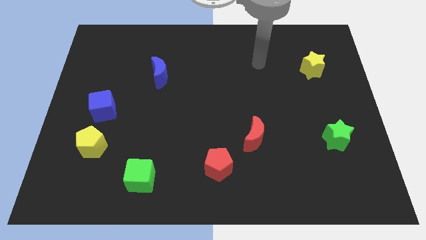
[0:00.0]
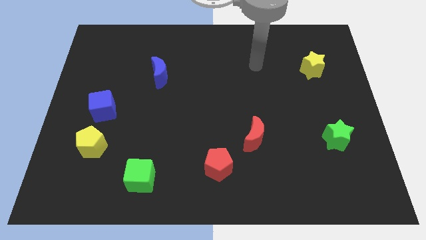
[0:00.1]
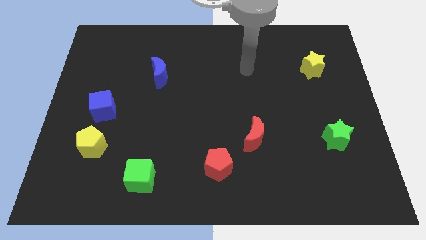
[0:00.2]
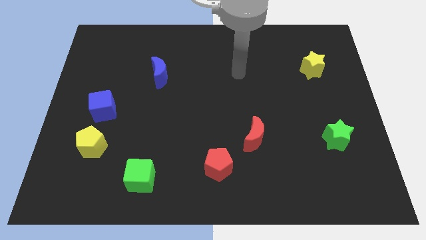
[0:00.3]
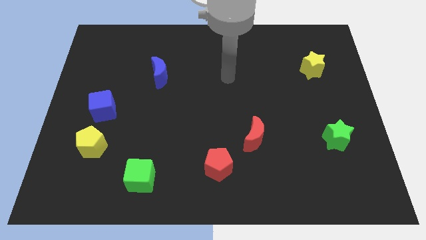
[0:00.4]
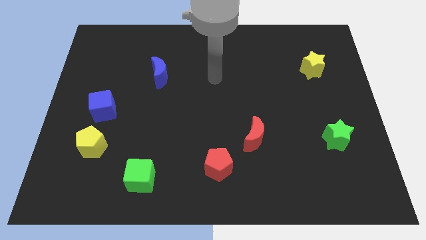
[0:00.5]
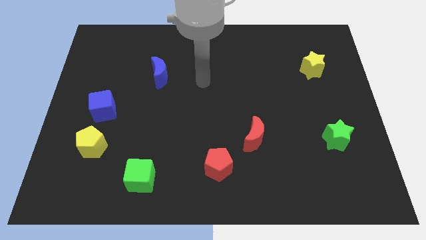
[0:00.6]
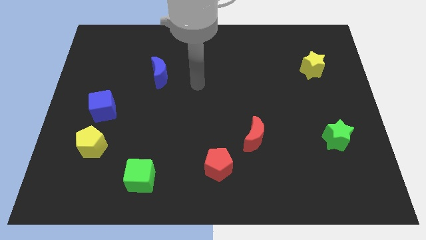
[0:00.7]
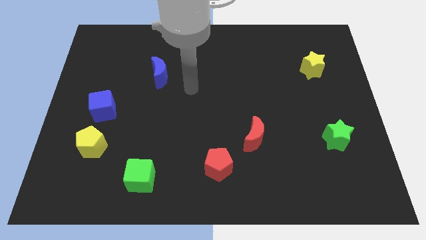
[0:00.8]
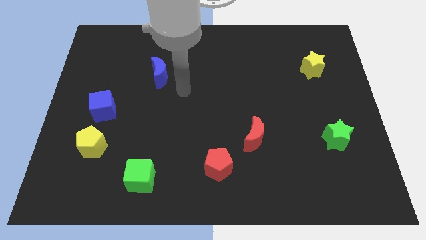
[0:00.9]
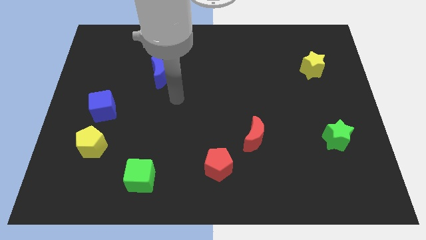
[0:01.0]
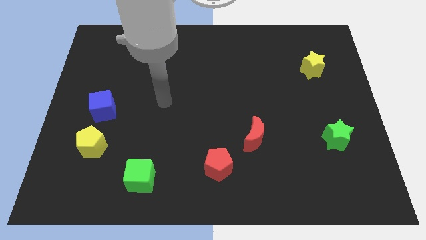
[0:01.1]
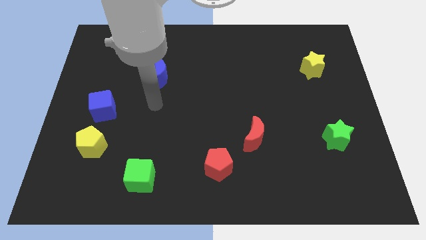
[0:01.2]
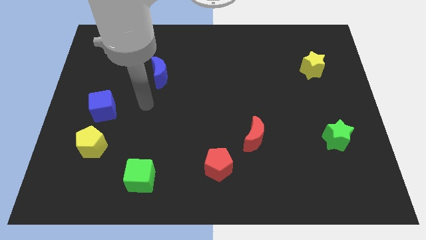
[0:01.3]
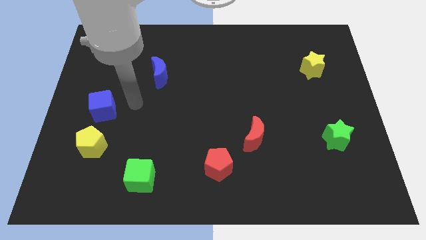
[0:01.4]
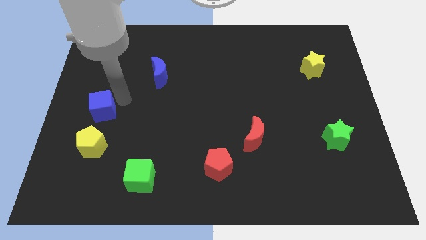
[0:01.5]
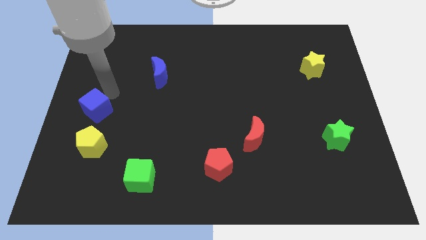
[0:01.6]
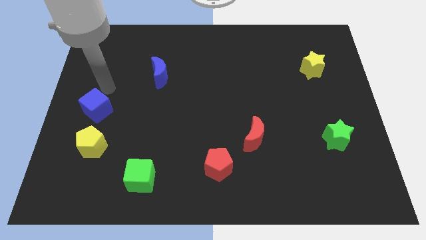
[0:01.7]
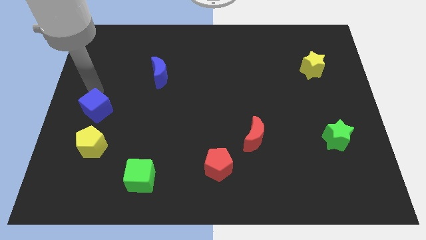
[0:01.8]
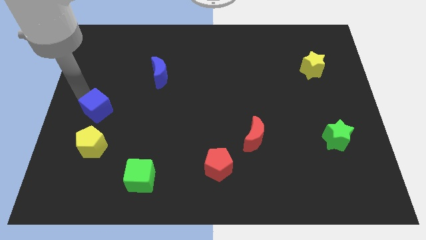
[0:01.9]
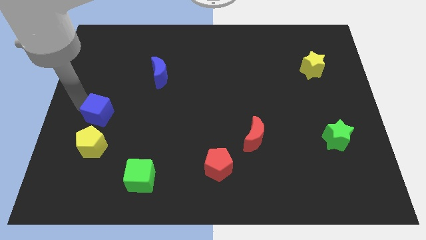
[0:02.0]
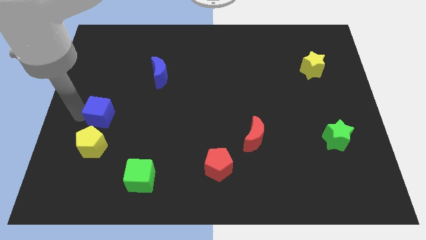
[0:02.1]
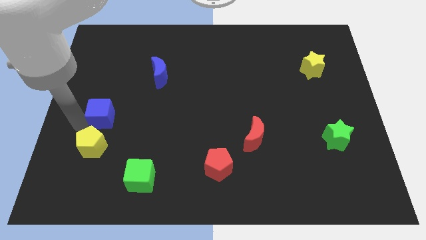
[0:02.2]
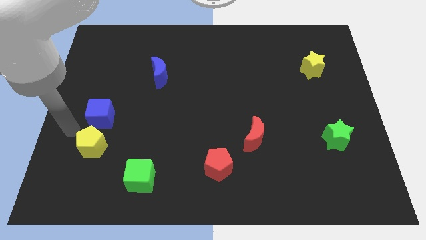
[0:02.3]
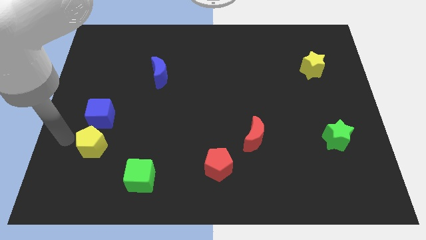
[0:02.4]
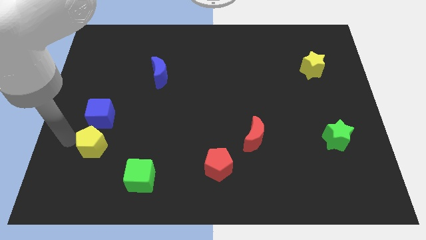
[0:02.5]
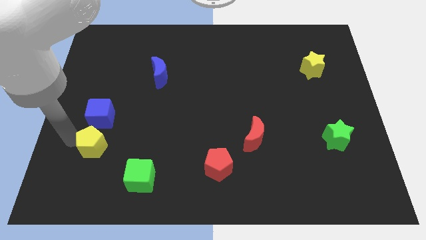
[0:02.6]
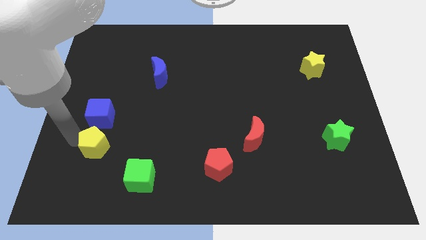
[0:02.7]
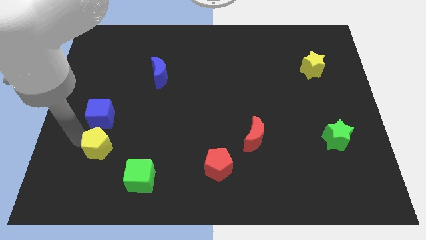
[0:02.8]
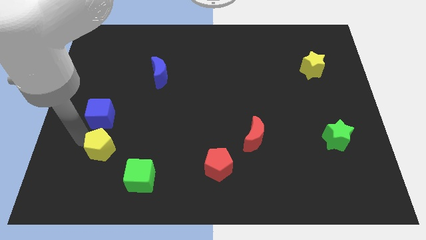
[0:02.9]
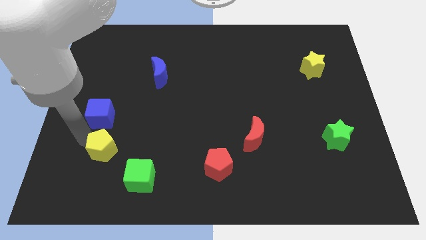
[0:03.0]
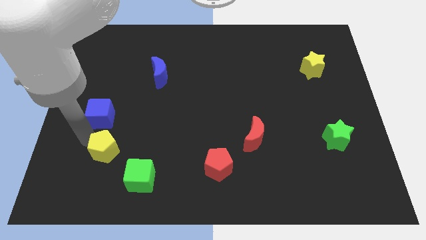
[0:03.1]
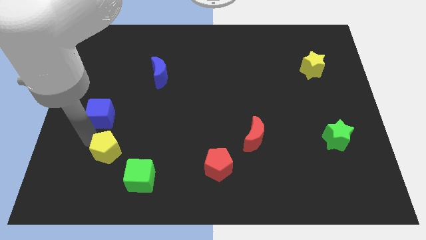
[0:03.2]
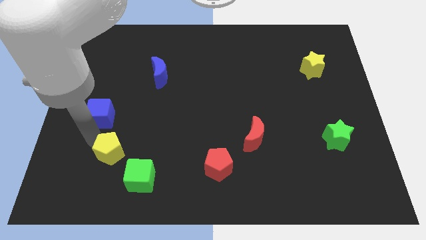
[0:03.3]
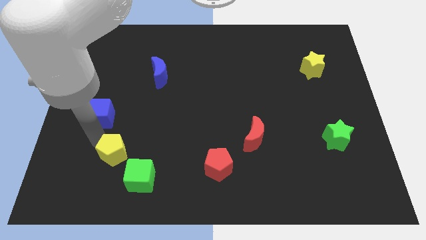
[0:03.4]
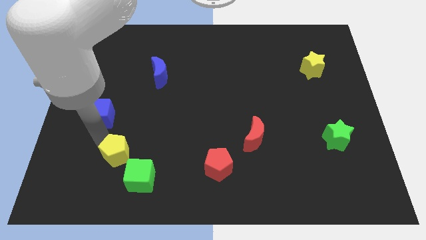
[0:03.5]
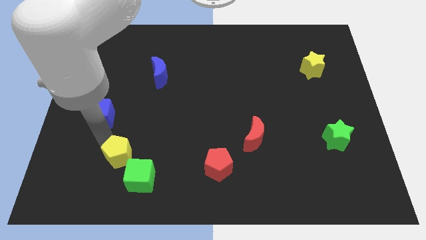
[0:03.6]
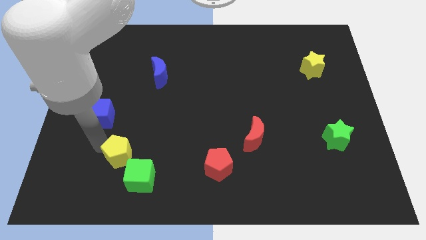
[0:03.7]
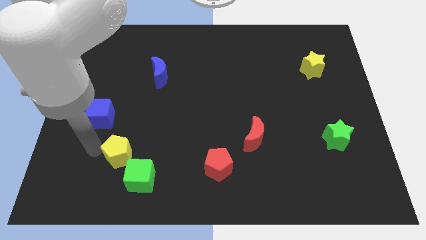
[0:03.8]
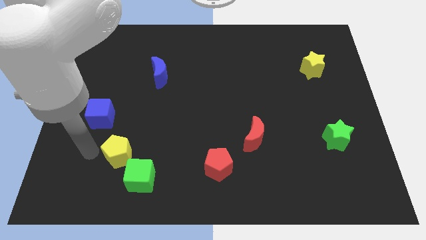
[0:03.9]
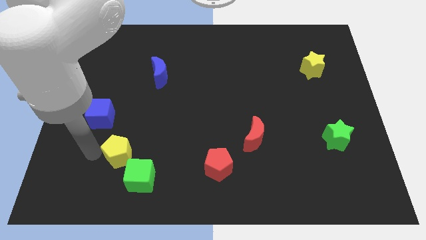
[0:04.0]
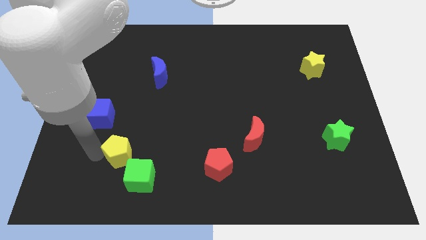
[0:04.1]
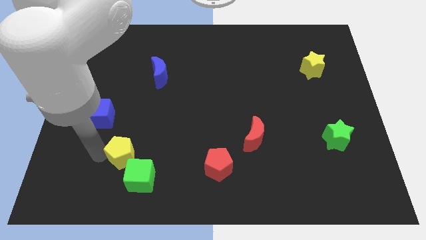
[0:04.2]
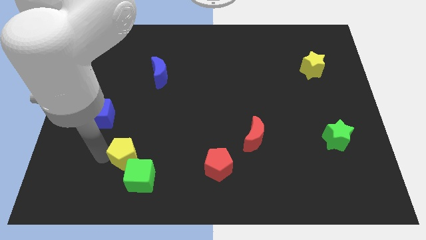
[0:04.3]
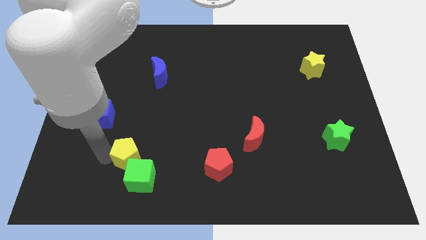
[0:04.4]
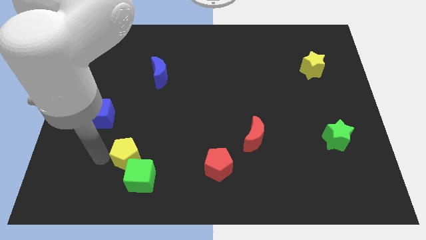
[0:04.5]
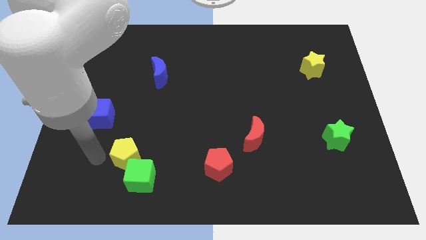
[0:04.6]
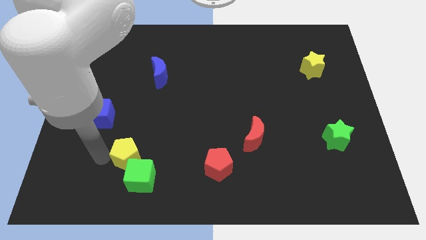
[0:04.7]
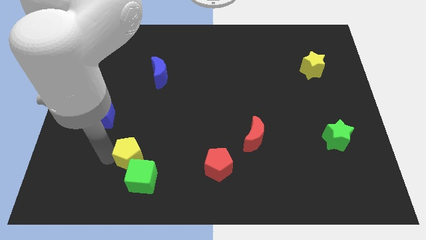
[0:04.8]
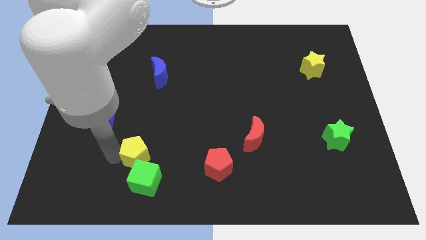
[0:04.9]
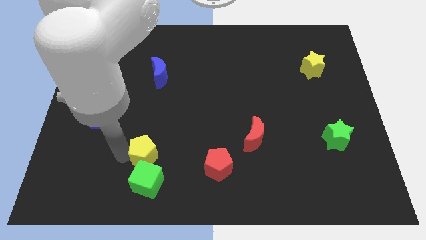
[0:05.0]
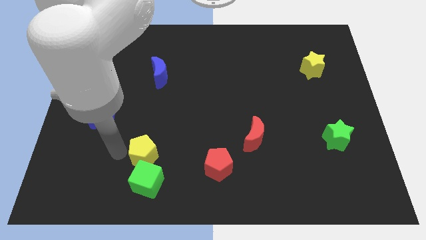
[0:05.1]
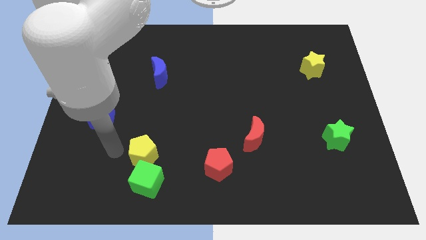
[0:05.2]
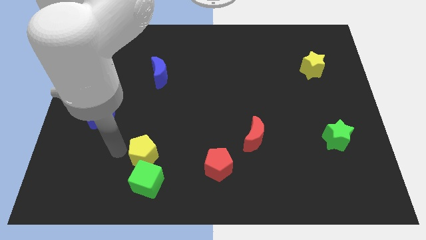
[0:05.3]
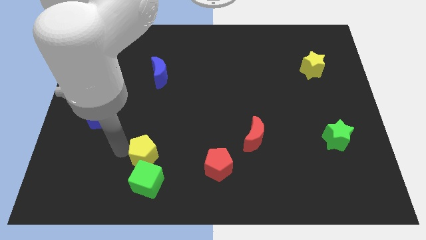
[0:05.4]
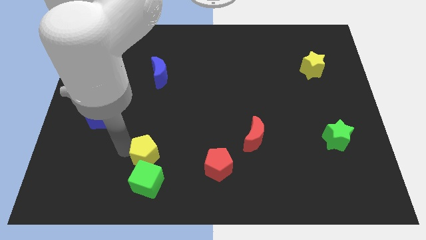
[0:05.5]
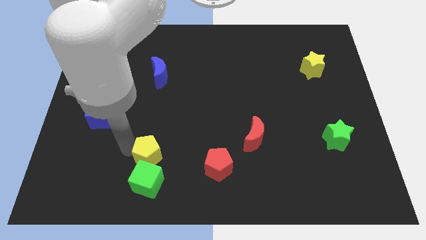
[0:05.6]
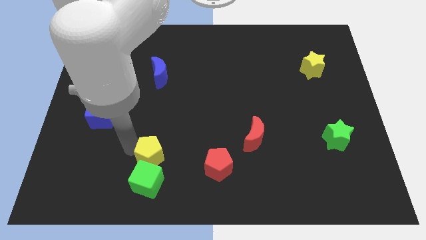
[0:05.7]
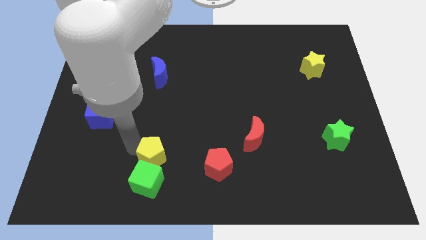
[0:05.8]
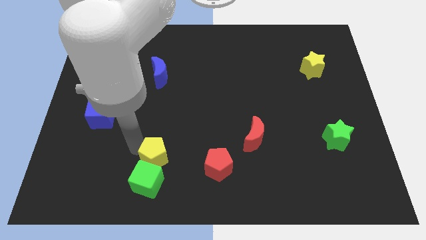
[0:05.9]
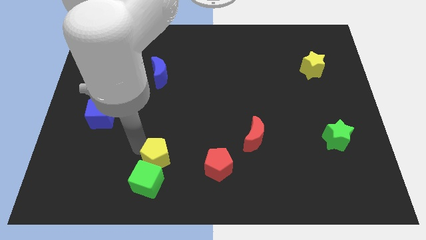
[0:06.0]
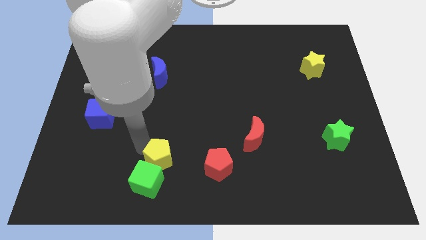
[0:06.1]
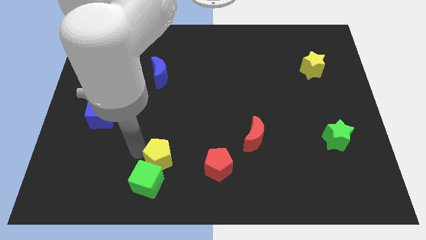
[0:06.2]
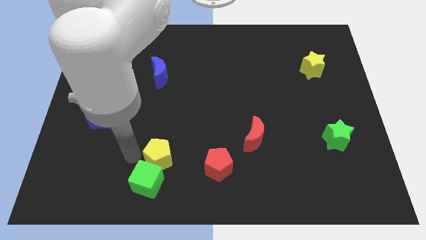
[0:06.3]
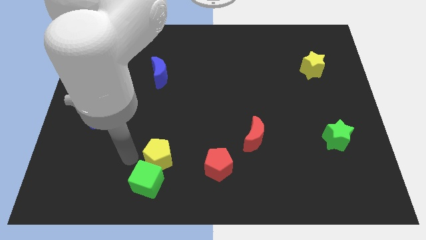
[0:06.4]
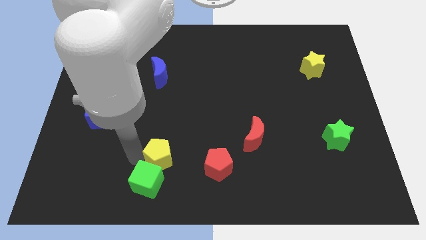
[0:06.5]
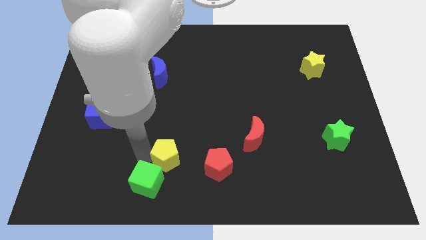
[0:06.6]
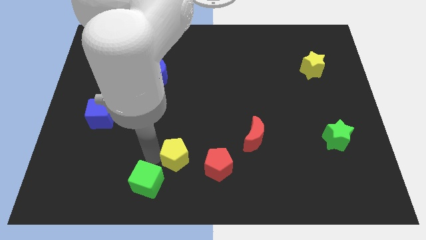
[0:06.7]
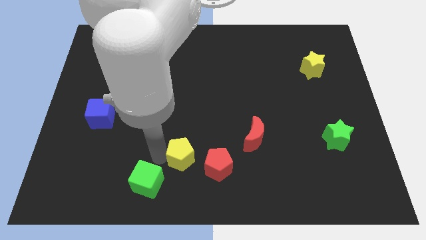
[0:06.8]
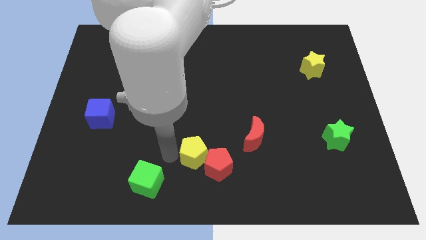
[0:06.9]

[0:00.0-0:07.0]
put the yellow pentagon next to the red pentagon

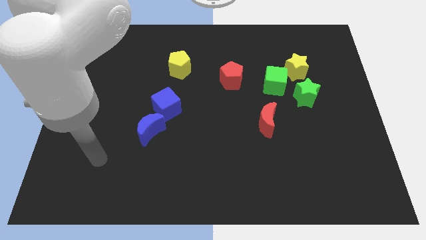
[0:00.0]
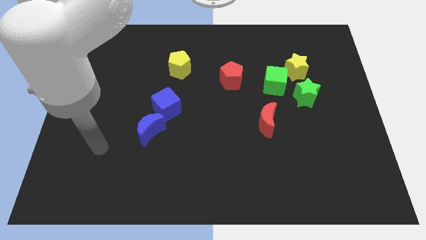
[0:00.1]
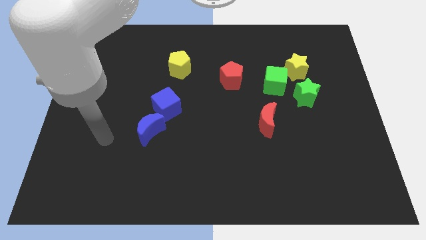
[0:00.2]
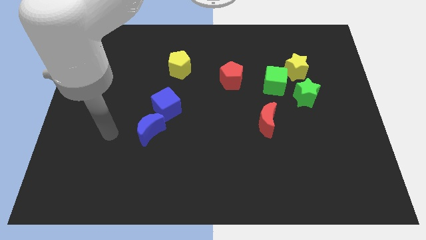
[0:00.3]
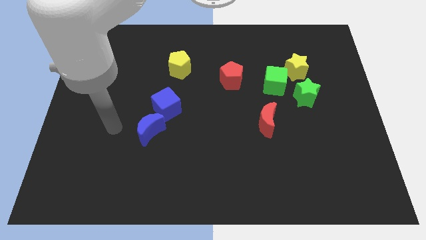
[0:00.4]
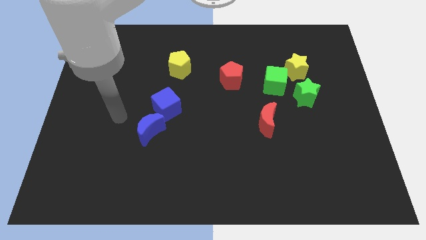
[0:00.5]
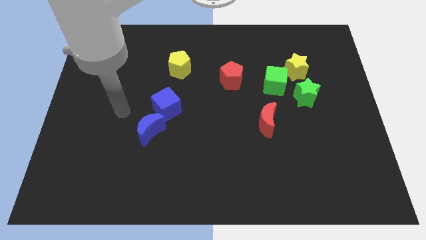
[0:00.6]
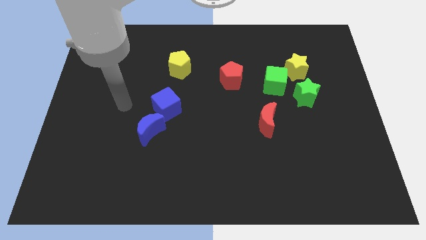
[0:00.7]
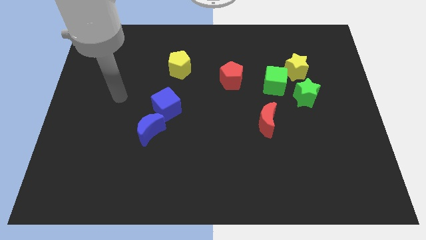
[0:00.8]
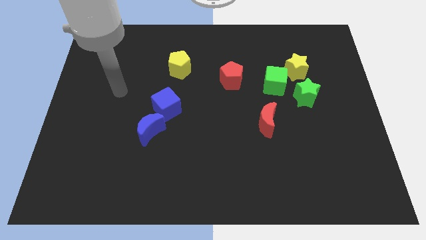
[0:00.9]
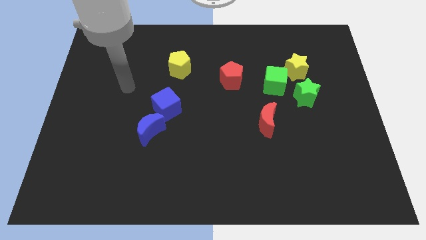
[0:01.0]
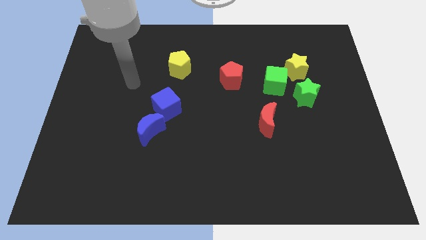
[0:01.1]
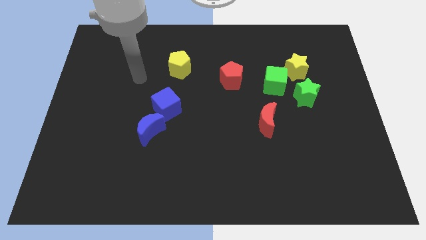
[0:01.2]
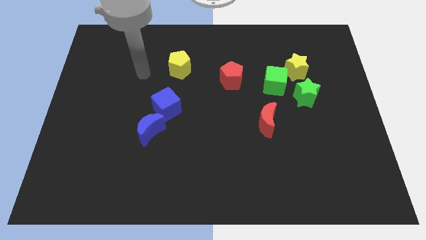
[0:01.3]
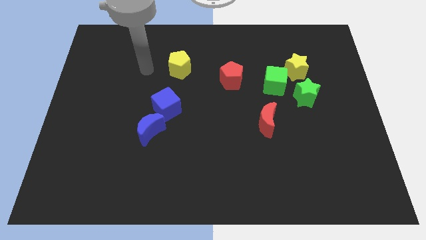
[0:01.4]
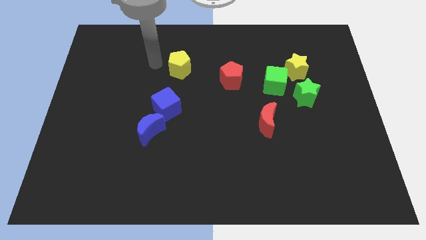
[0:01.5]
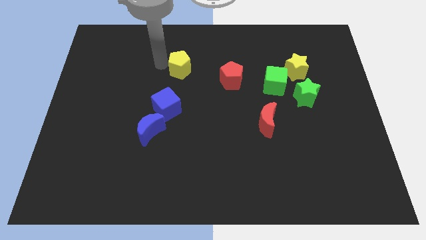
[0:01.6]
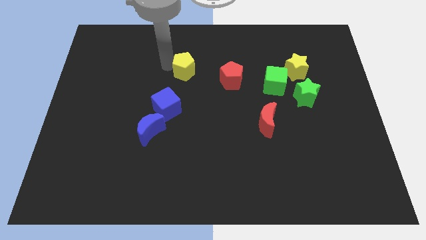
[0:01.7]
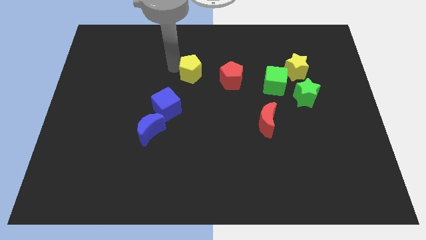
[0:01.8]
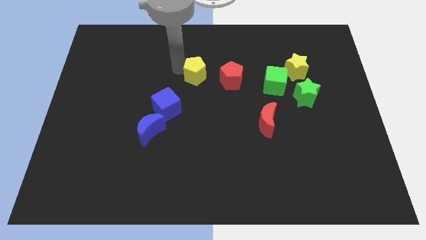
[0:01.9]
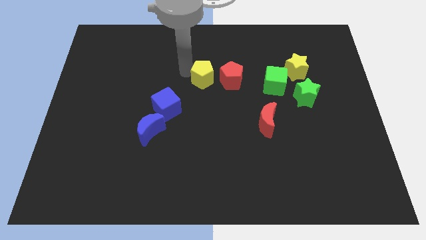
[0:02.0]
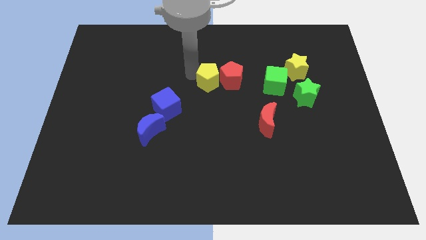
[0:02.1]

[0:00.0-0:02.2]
put the yellow pentagon close to the red pentagon
